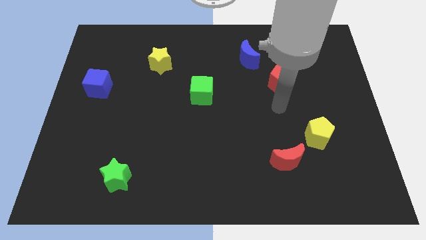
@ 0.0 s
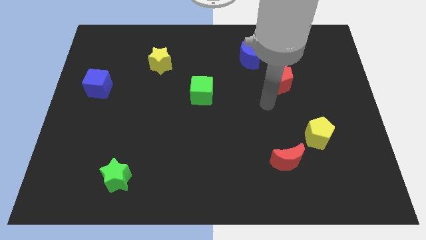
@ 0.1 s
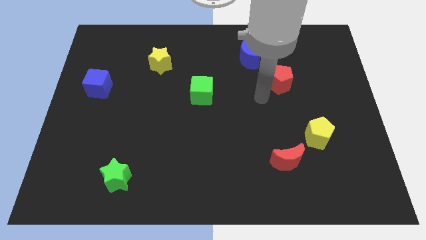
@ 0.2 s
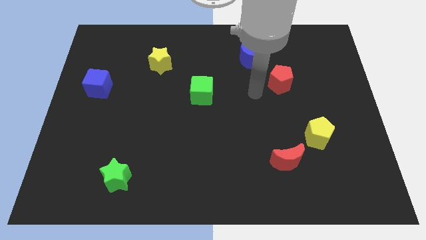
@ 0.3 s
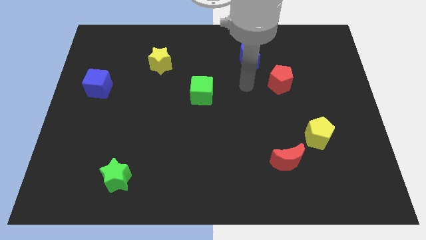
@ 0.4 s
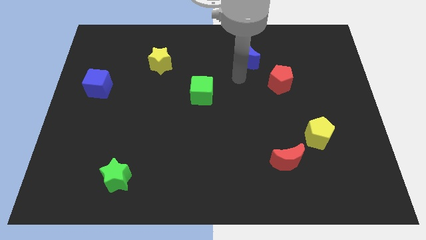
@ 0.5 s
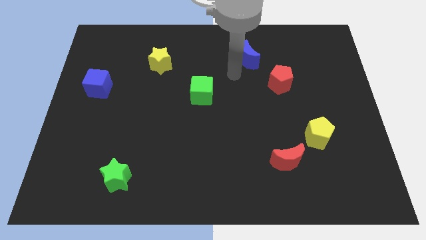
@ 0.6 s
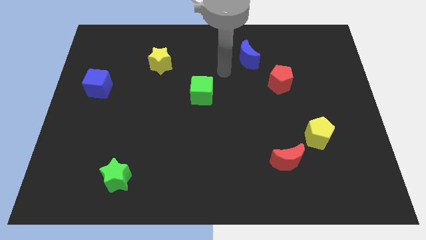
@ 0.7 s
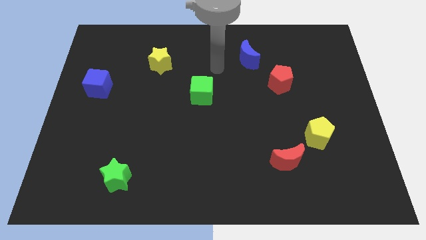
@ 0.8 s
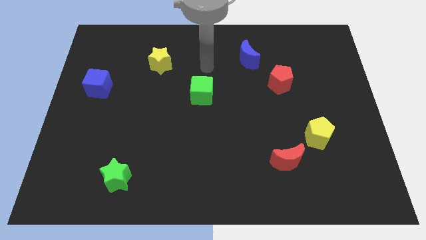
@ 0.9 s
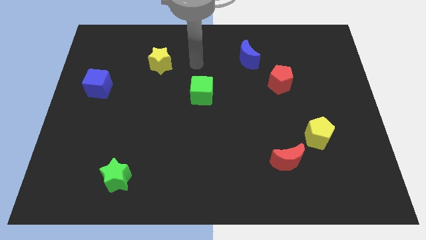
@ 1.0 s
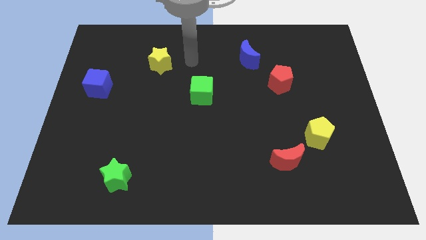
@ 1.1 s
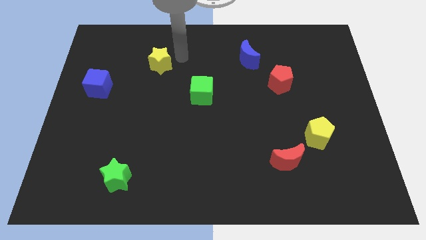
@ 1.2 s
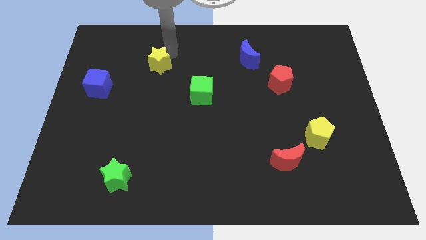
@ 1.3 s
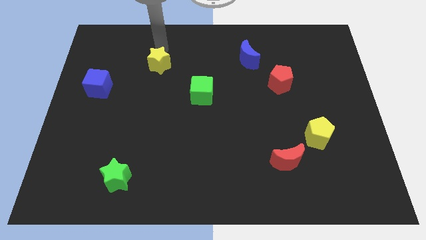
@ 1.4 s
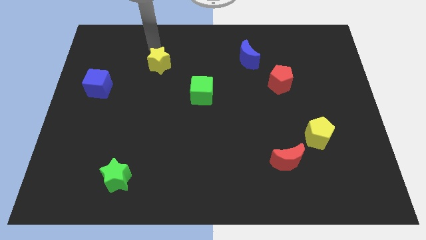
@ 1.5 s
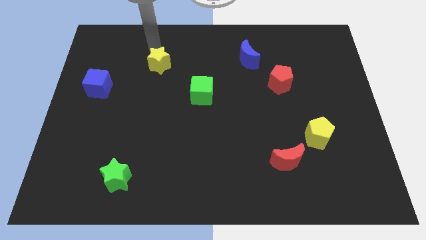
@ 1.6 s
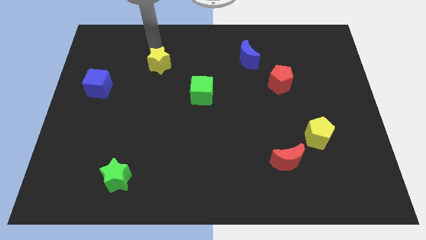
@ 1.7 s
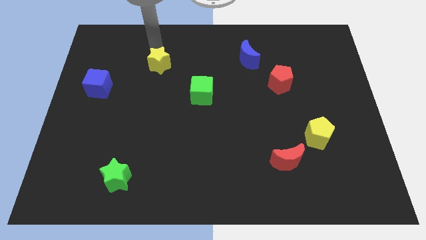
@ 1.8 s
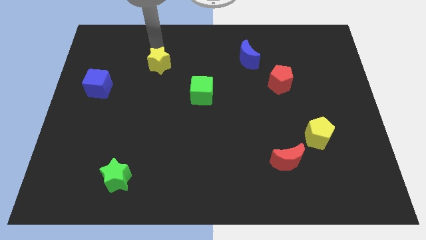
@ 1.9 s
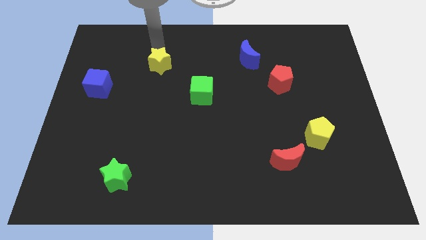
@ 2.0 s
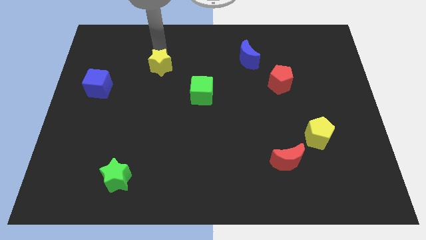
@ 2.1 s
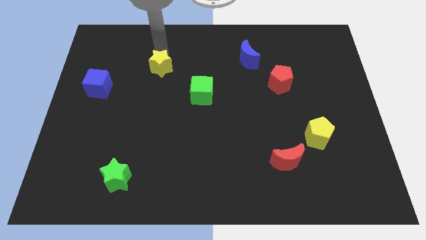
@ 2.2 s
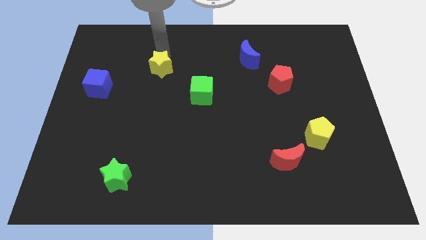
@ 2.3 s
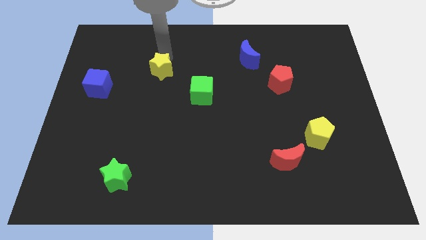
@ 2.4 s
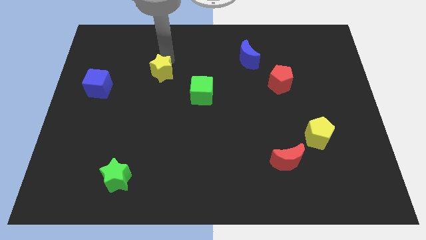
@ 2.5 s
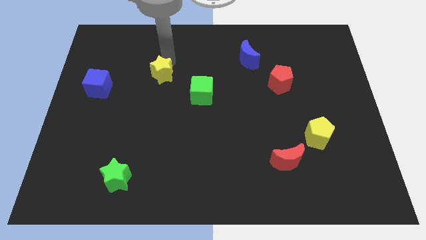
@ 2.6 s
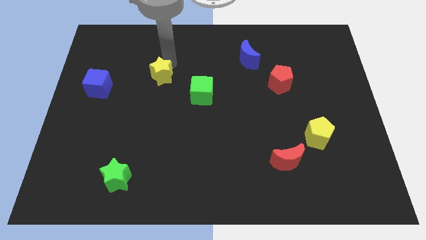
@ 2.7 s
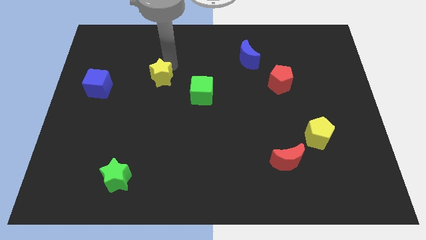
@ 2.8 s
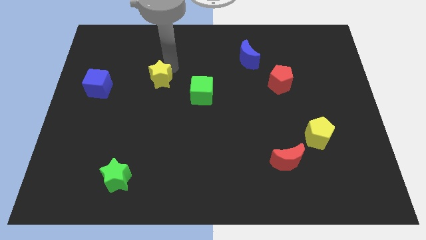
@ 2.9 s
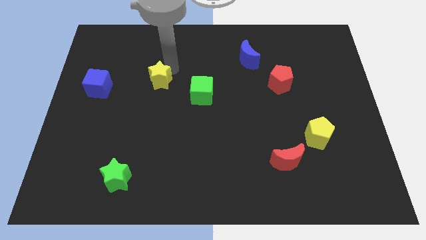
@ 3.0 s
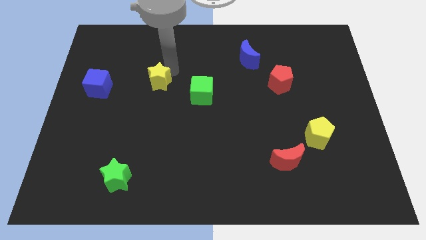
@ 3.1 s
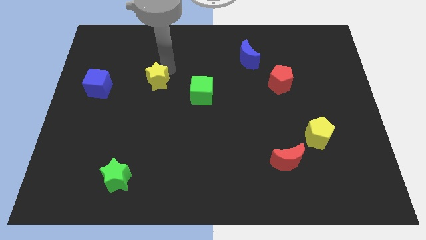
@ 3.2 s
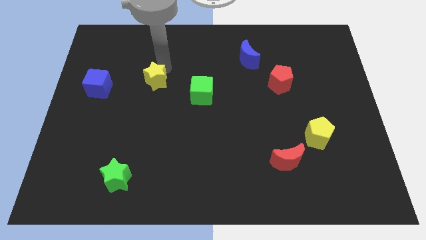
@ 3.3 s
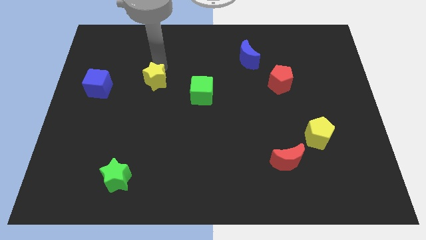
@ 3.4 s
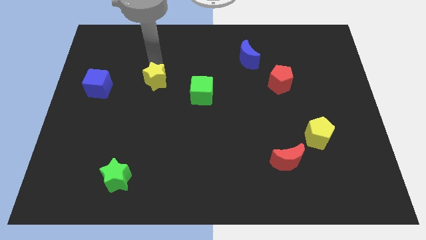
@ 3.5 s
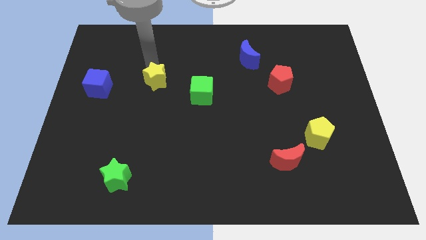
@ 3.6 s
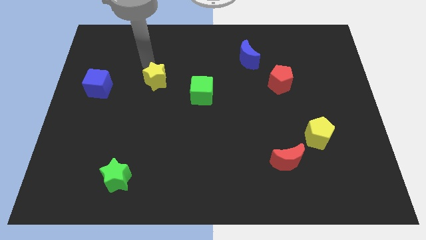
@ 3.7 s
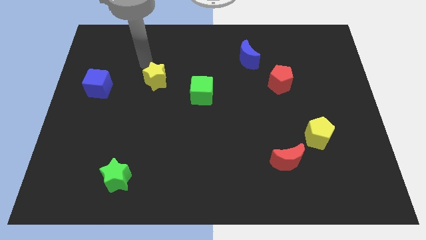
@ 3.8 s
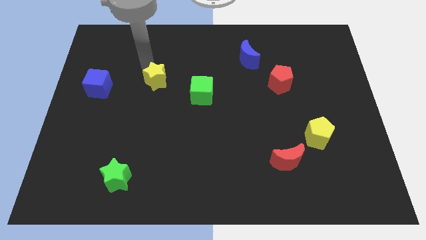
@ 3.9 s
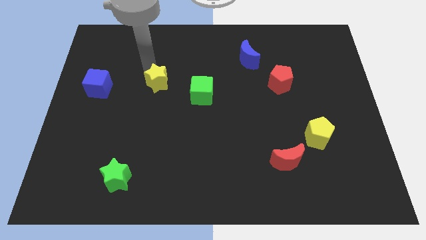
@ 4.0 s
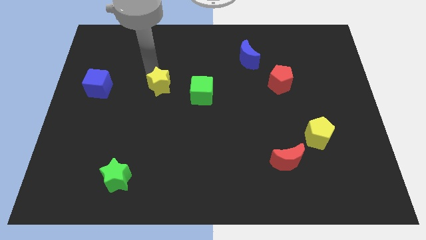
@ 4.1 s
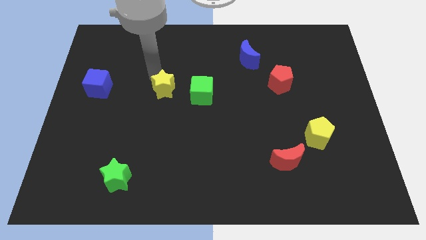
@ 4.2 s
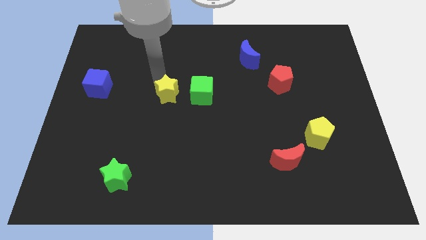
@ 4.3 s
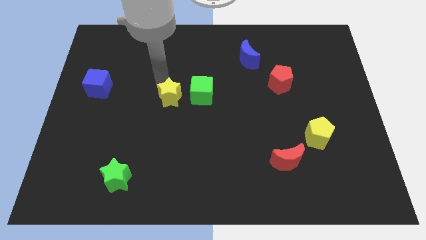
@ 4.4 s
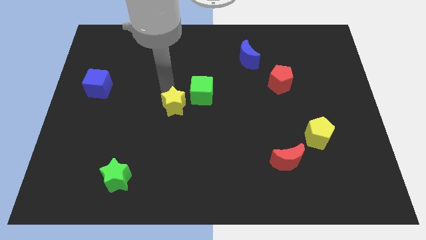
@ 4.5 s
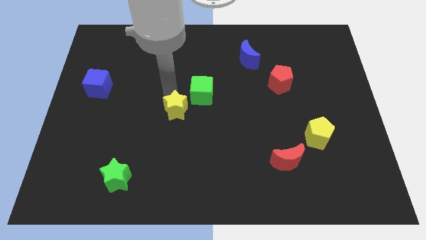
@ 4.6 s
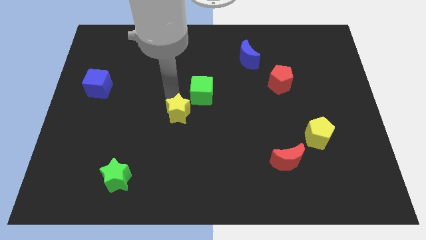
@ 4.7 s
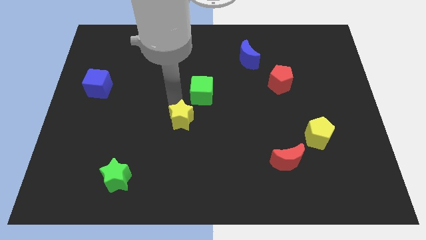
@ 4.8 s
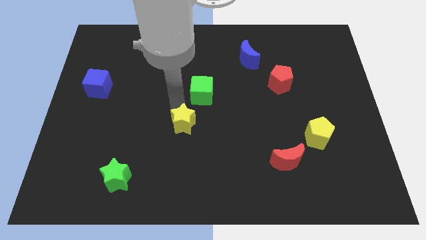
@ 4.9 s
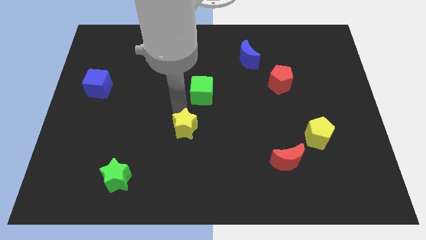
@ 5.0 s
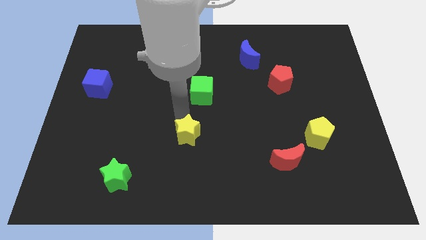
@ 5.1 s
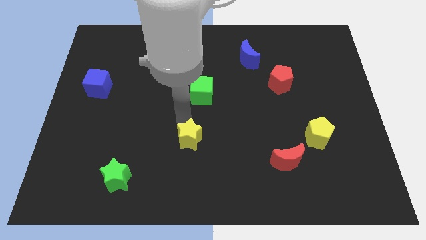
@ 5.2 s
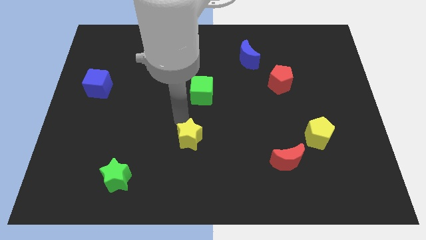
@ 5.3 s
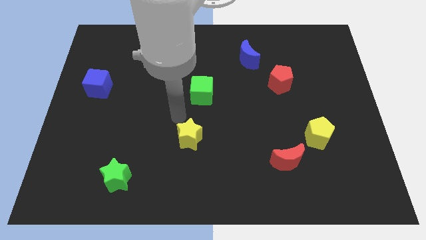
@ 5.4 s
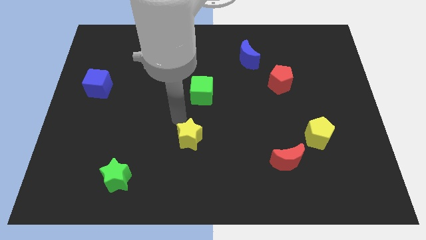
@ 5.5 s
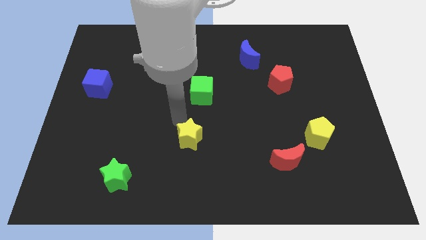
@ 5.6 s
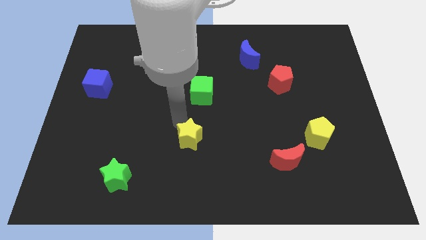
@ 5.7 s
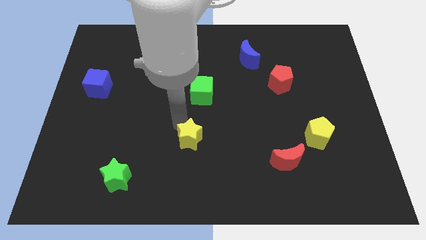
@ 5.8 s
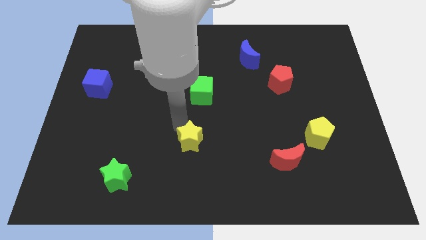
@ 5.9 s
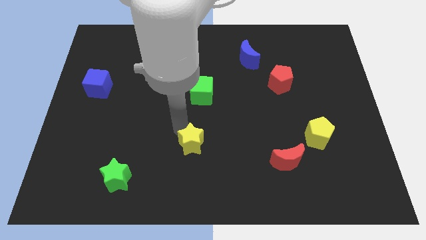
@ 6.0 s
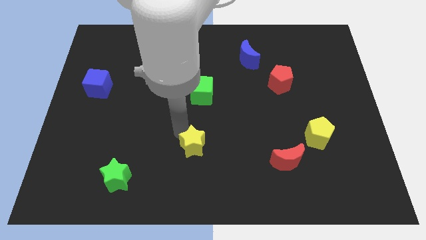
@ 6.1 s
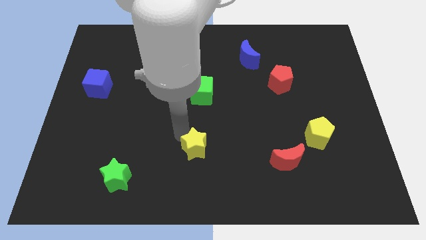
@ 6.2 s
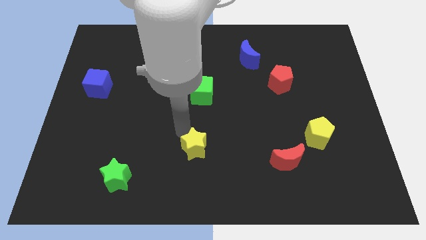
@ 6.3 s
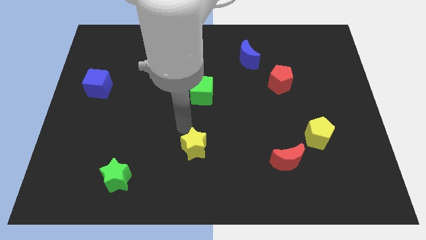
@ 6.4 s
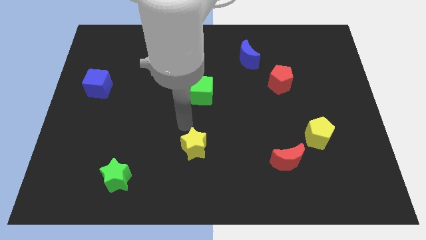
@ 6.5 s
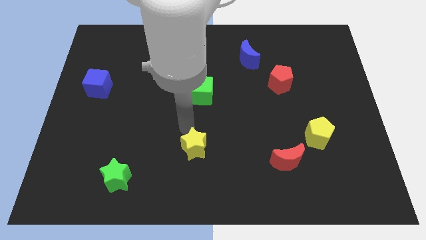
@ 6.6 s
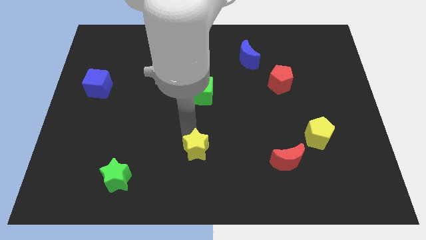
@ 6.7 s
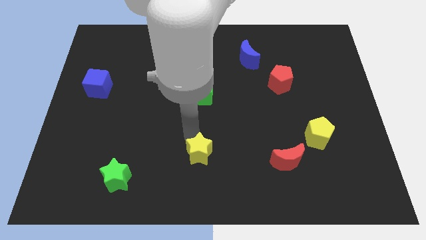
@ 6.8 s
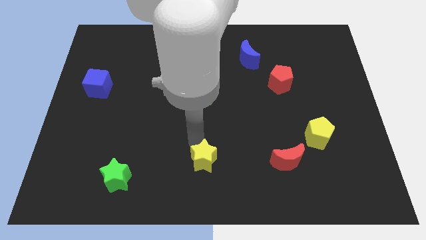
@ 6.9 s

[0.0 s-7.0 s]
push the yellow star to the bottom side
